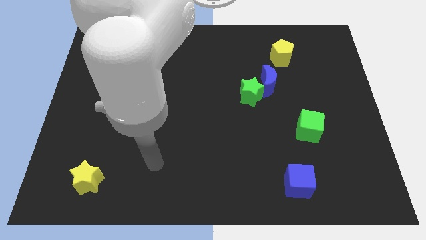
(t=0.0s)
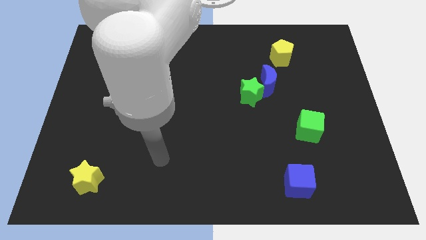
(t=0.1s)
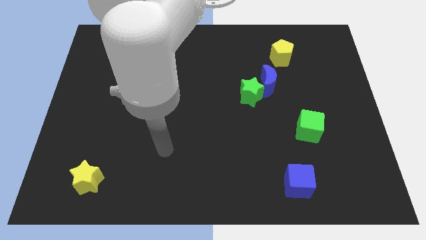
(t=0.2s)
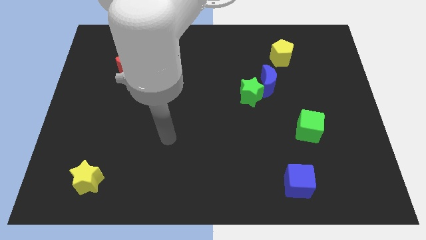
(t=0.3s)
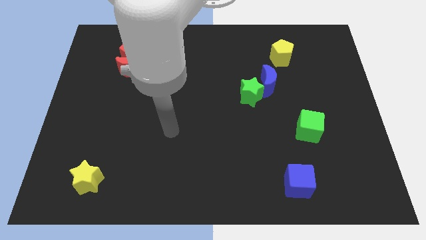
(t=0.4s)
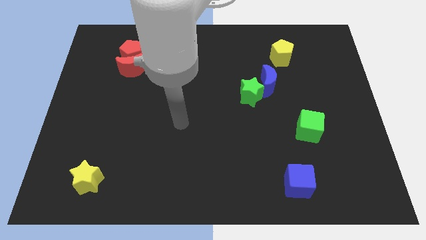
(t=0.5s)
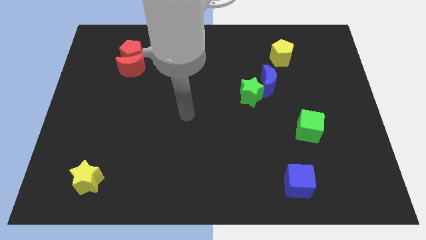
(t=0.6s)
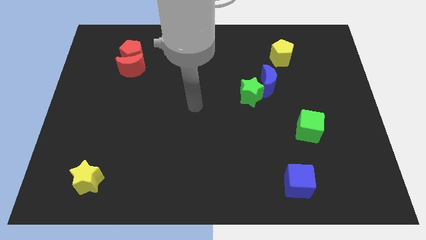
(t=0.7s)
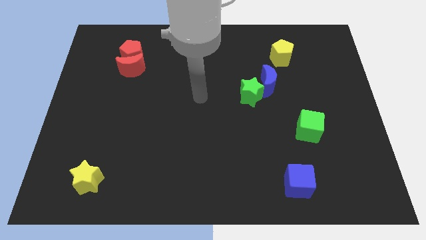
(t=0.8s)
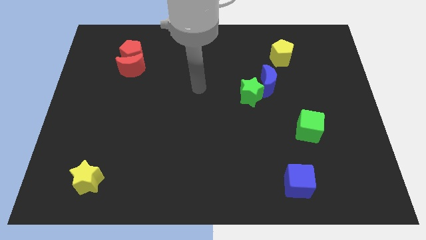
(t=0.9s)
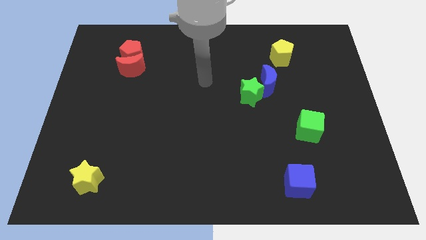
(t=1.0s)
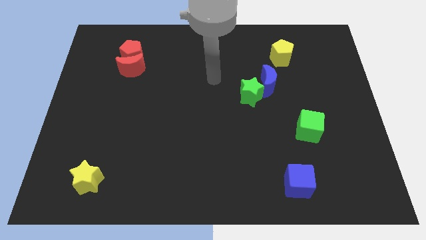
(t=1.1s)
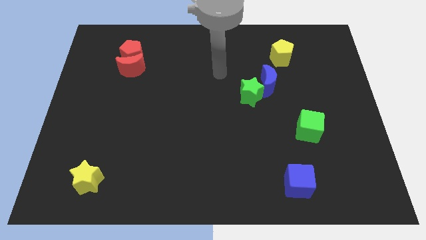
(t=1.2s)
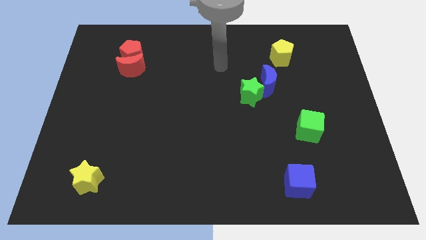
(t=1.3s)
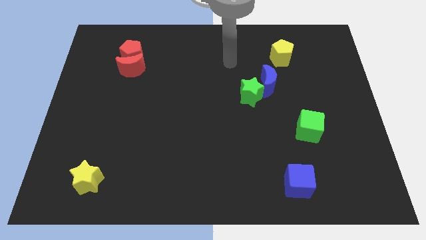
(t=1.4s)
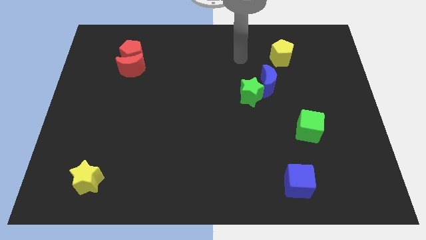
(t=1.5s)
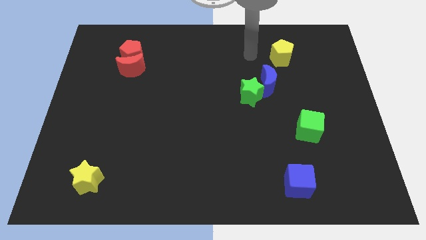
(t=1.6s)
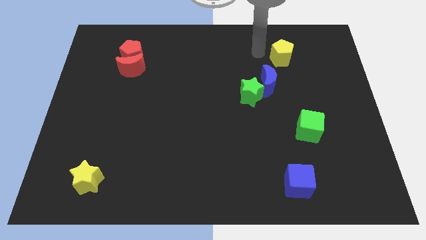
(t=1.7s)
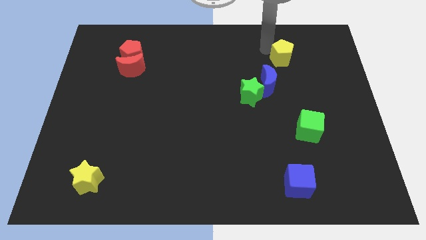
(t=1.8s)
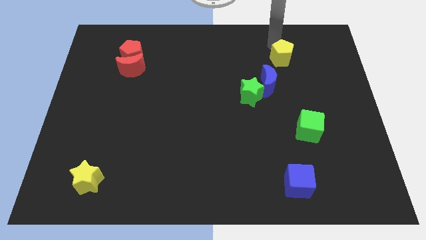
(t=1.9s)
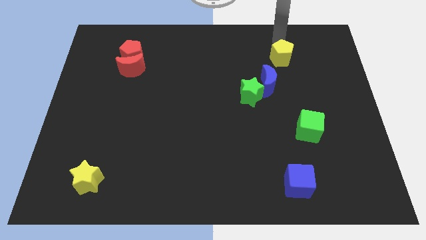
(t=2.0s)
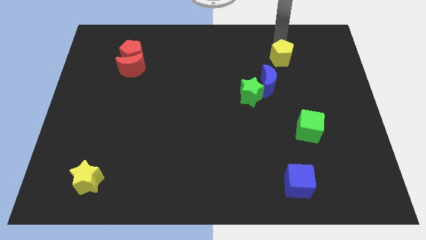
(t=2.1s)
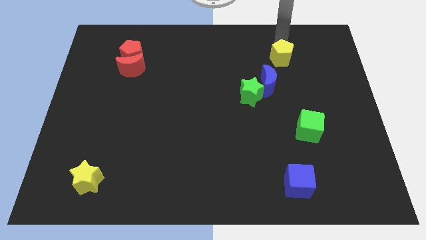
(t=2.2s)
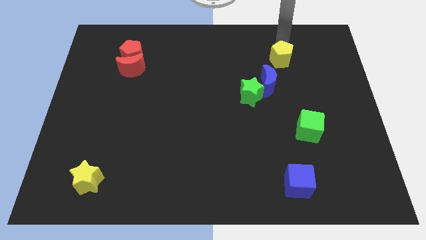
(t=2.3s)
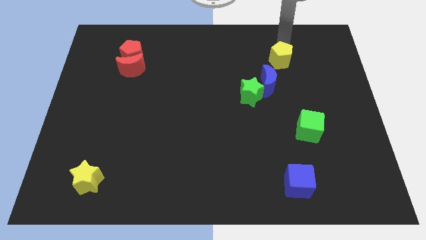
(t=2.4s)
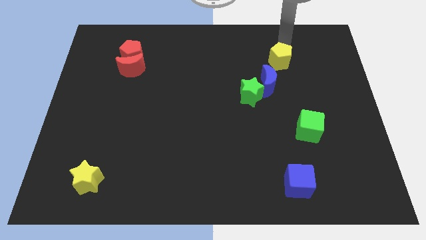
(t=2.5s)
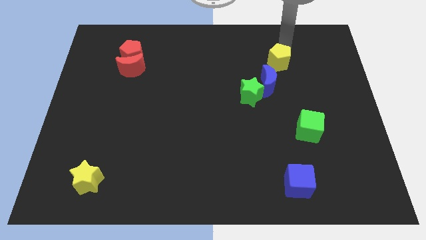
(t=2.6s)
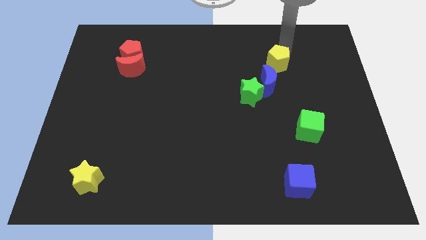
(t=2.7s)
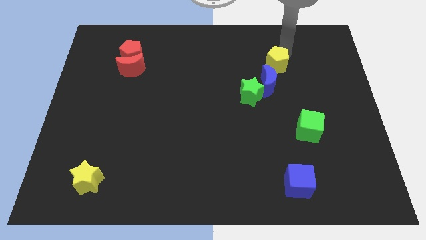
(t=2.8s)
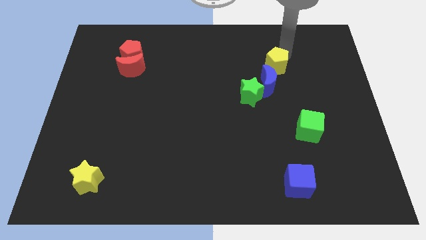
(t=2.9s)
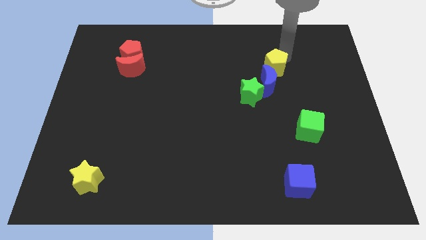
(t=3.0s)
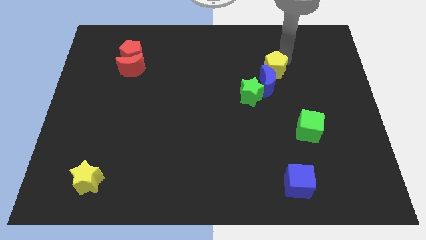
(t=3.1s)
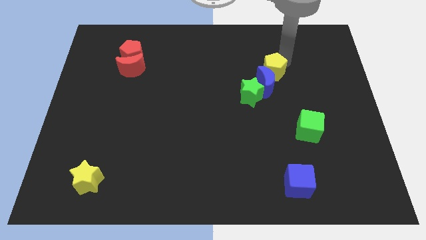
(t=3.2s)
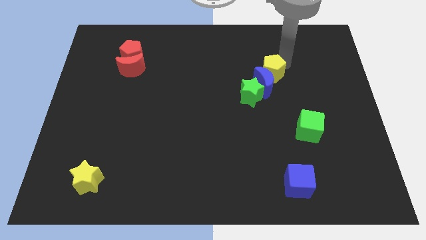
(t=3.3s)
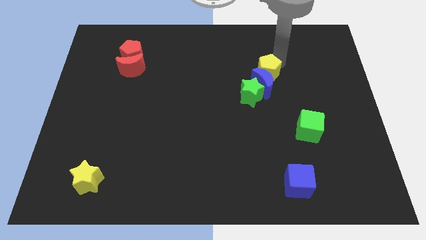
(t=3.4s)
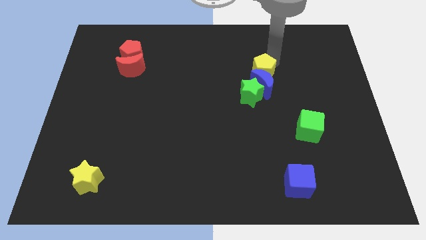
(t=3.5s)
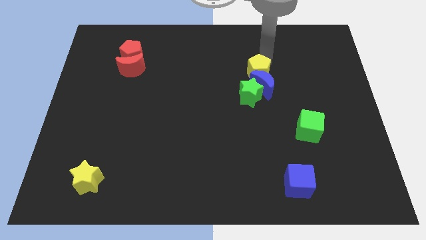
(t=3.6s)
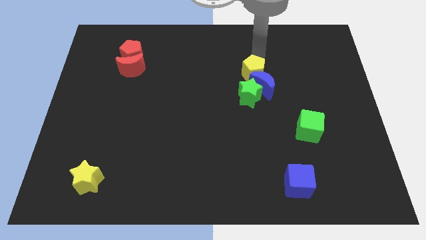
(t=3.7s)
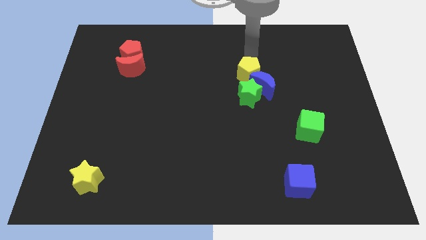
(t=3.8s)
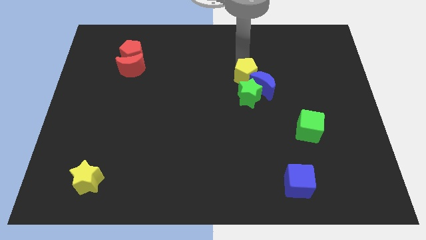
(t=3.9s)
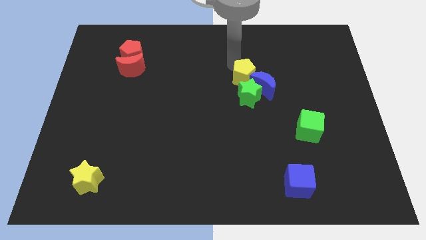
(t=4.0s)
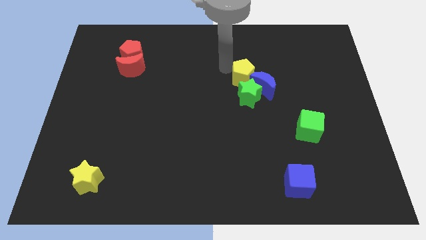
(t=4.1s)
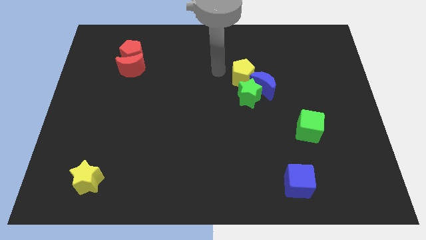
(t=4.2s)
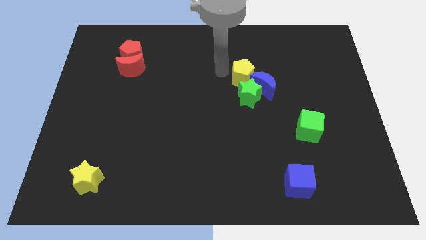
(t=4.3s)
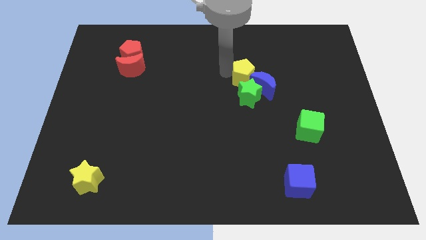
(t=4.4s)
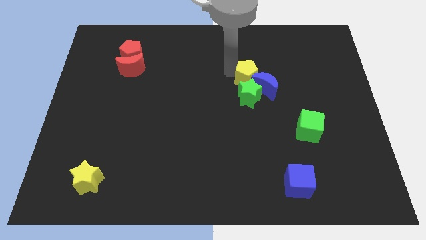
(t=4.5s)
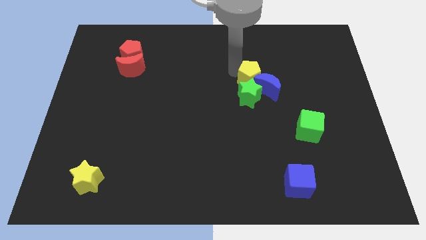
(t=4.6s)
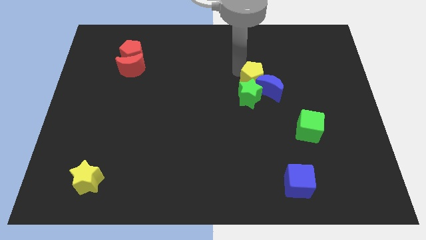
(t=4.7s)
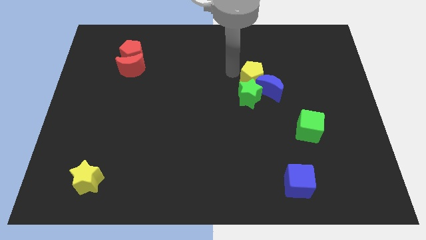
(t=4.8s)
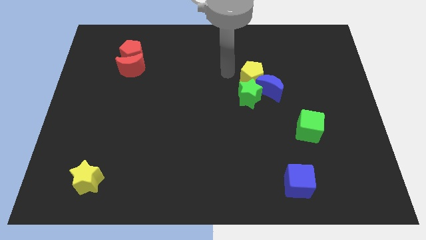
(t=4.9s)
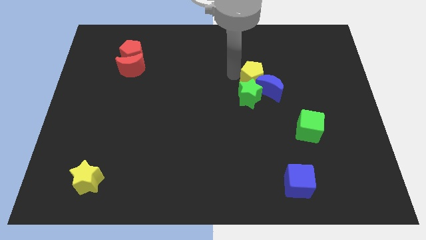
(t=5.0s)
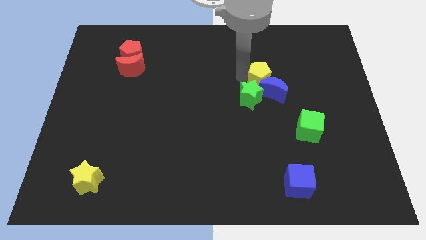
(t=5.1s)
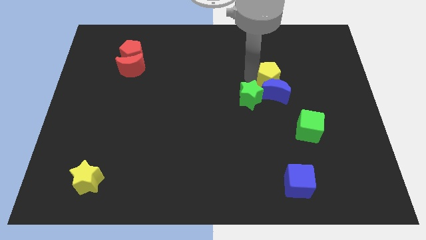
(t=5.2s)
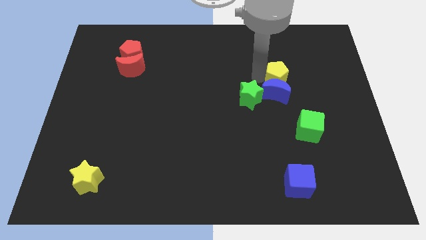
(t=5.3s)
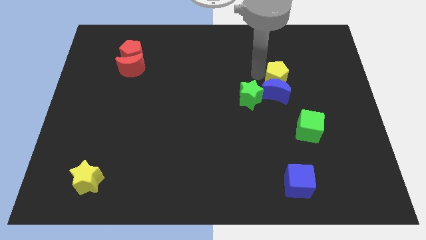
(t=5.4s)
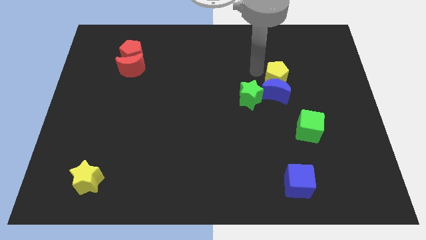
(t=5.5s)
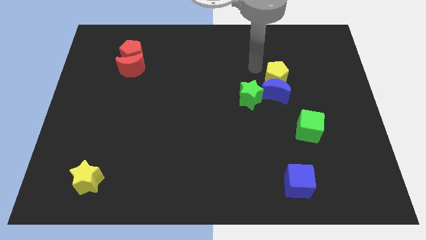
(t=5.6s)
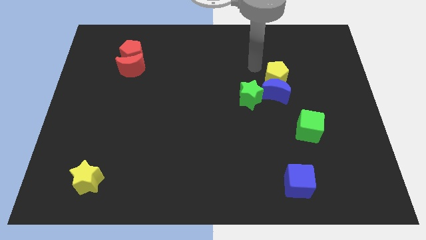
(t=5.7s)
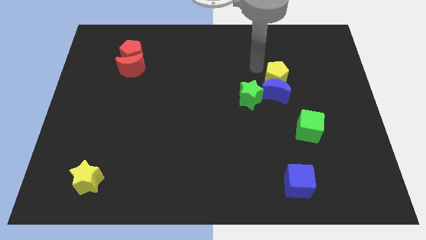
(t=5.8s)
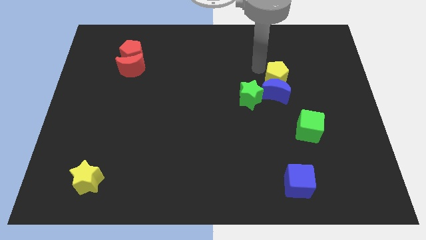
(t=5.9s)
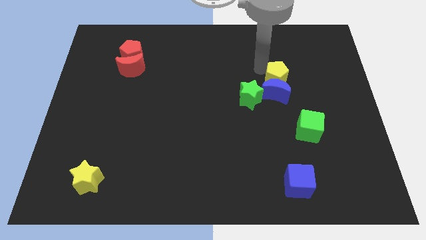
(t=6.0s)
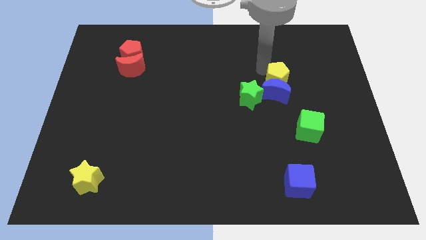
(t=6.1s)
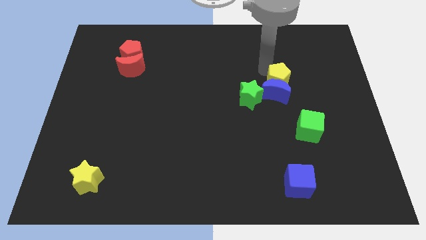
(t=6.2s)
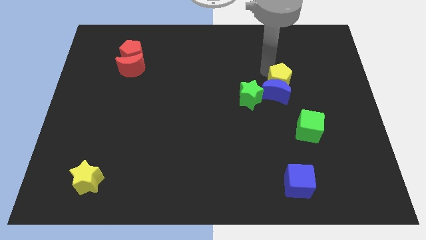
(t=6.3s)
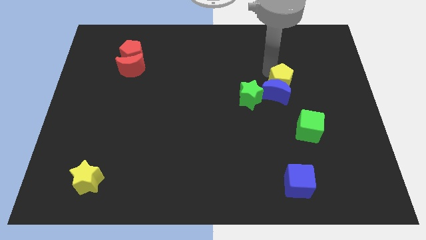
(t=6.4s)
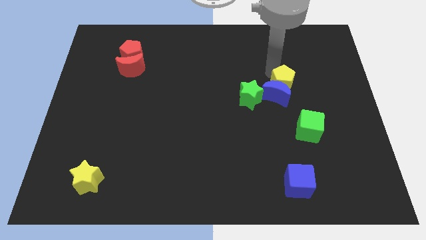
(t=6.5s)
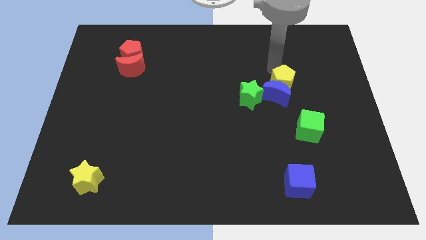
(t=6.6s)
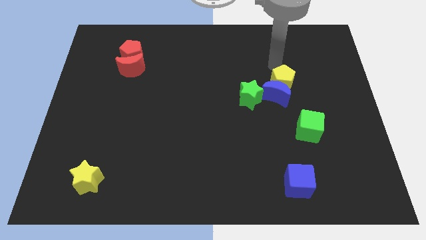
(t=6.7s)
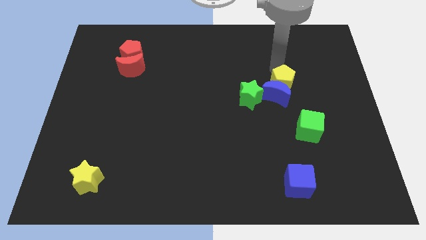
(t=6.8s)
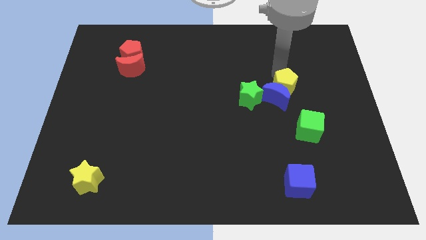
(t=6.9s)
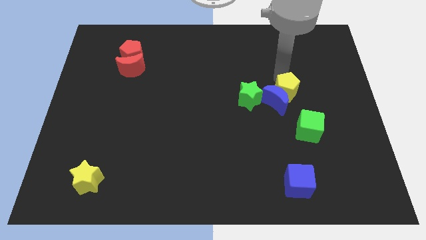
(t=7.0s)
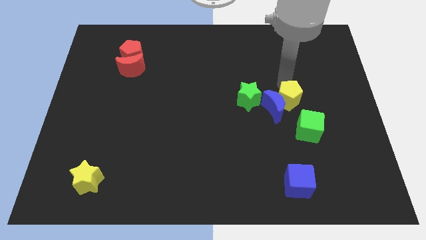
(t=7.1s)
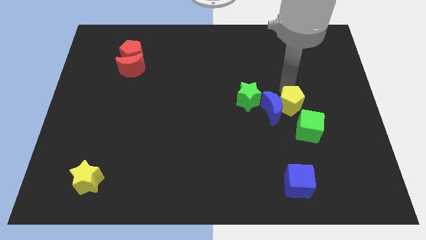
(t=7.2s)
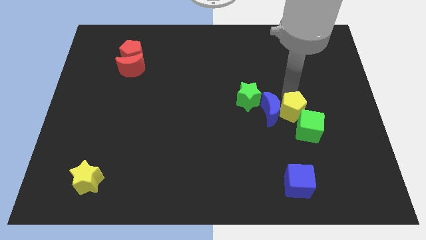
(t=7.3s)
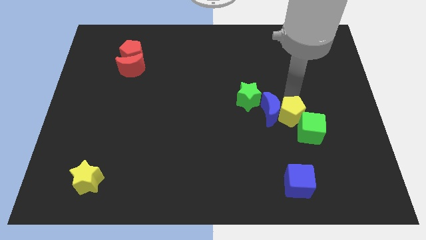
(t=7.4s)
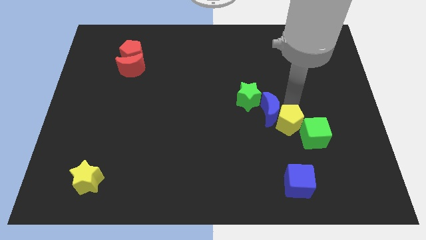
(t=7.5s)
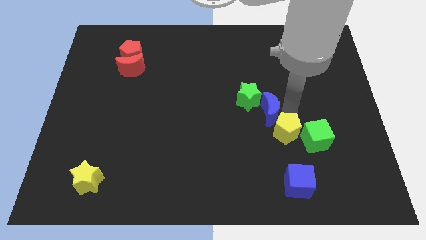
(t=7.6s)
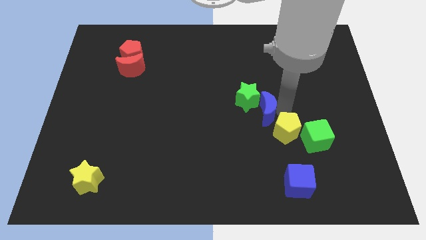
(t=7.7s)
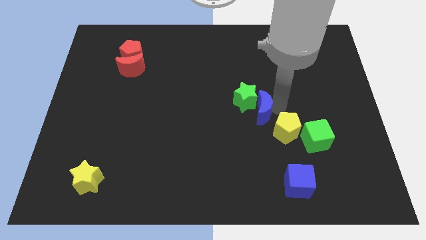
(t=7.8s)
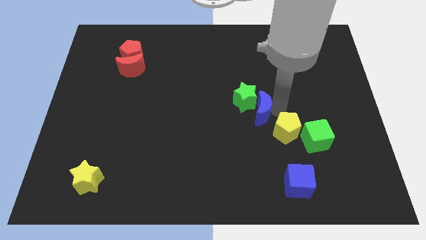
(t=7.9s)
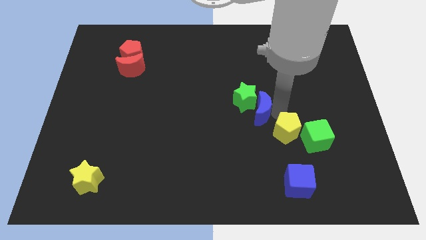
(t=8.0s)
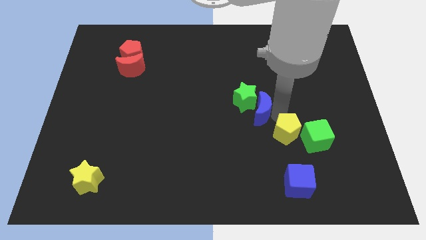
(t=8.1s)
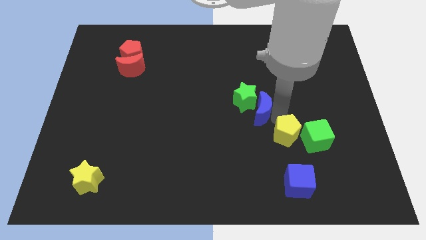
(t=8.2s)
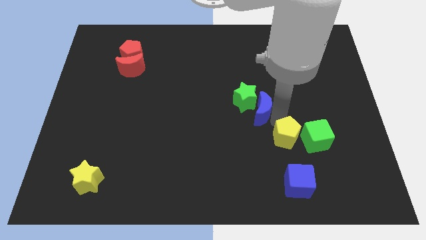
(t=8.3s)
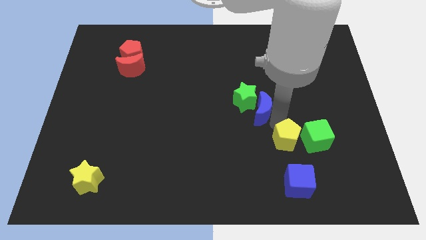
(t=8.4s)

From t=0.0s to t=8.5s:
slide the yellow pentagon to the bottom left of the green cube
